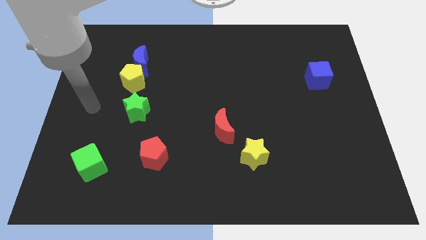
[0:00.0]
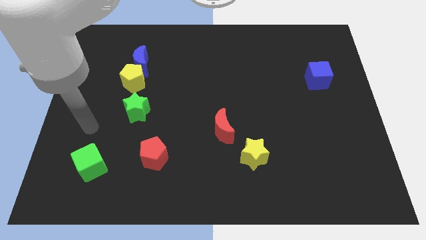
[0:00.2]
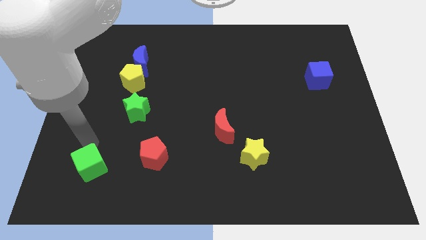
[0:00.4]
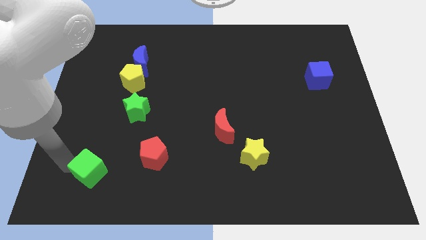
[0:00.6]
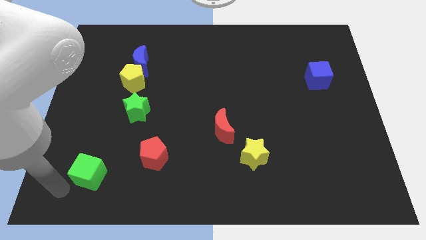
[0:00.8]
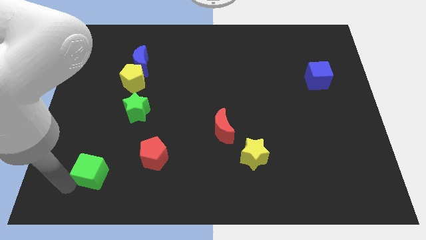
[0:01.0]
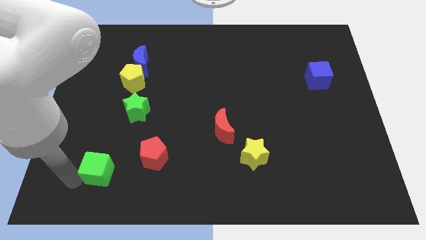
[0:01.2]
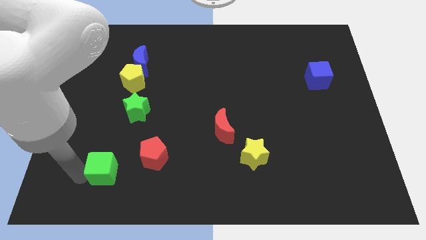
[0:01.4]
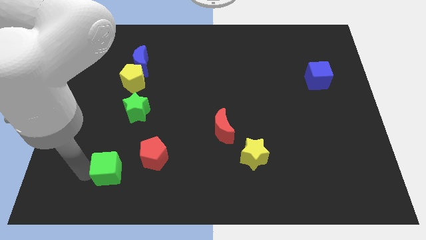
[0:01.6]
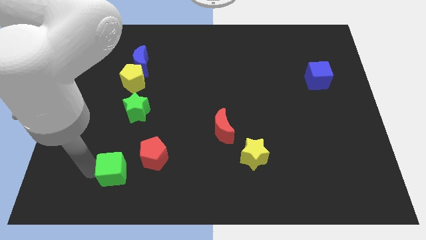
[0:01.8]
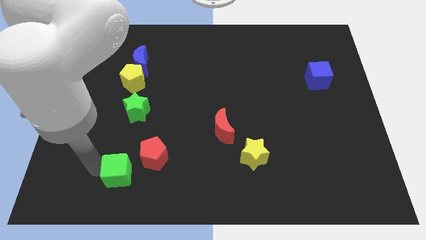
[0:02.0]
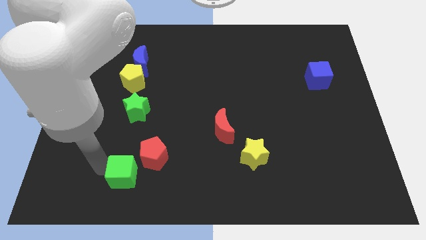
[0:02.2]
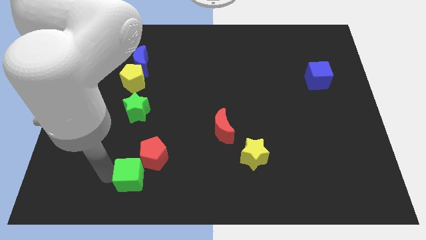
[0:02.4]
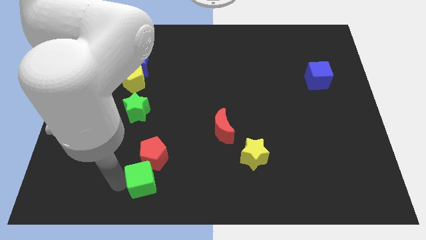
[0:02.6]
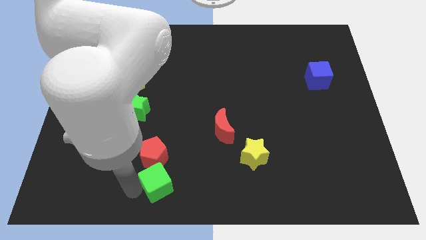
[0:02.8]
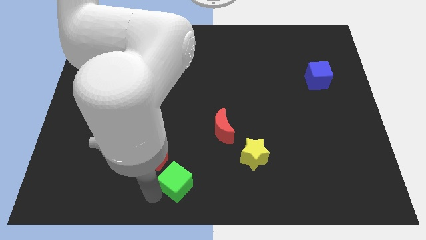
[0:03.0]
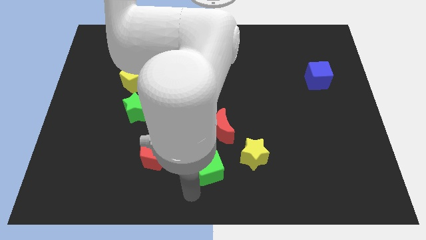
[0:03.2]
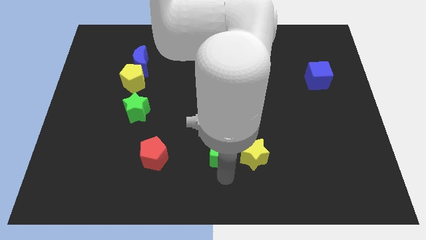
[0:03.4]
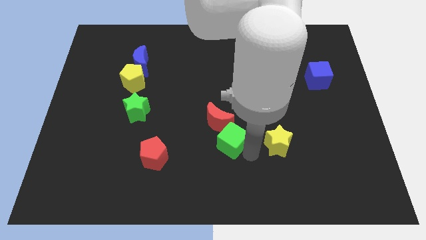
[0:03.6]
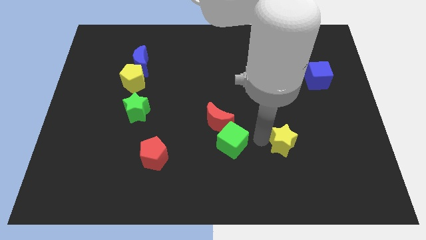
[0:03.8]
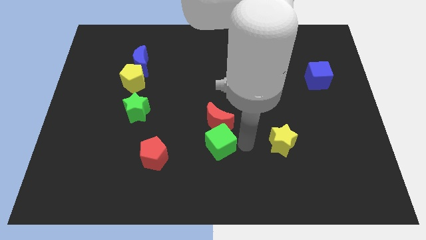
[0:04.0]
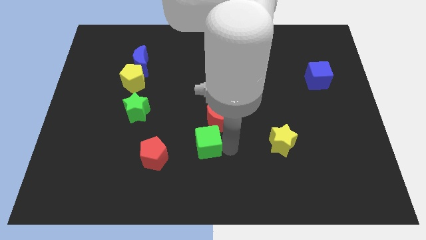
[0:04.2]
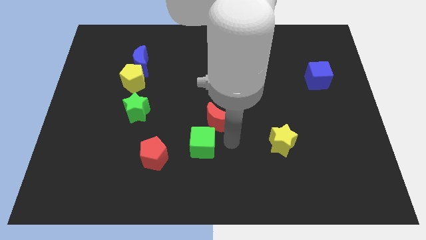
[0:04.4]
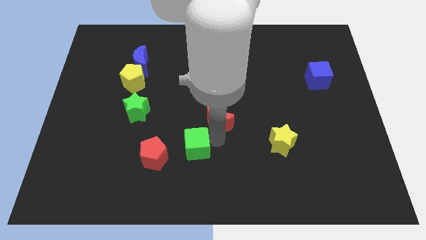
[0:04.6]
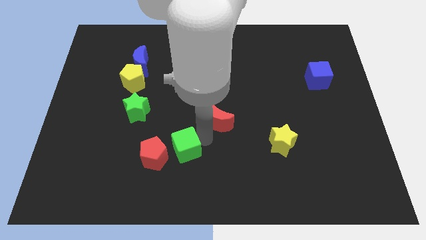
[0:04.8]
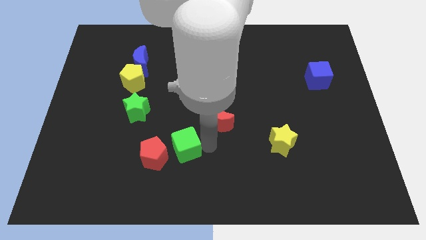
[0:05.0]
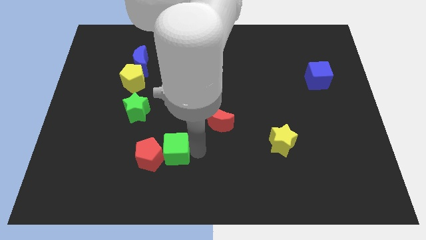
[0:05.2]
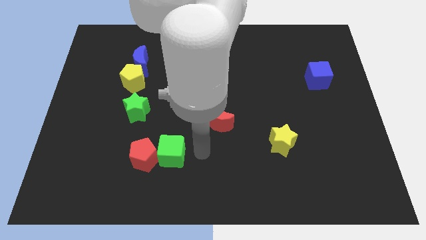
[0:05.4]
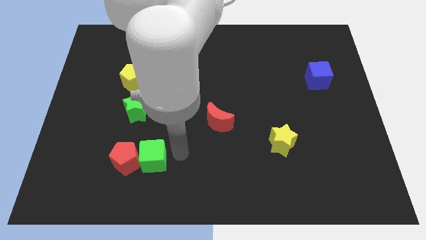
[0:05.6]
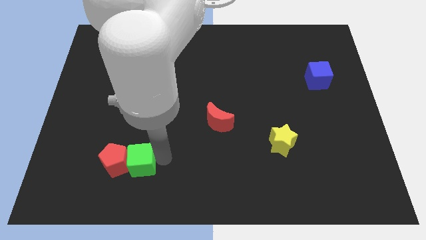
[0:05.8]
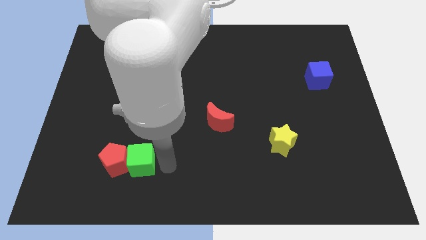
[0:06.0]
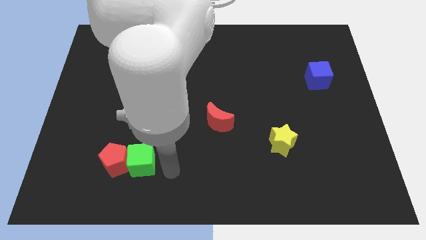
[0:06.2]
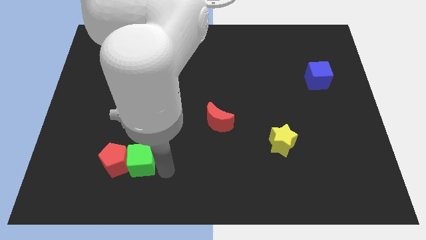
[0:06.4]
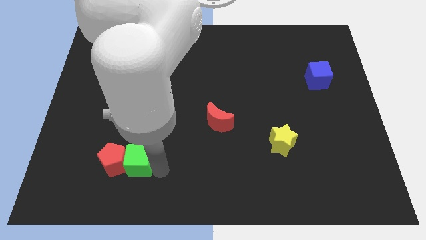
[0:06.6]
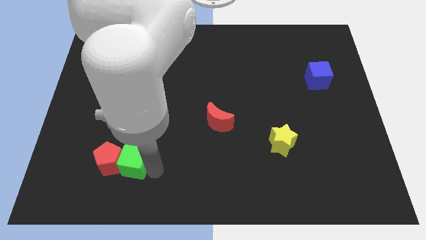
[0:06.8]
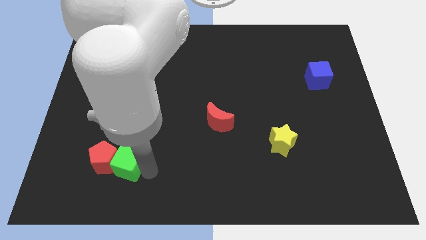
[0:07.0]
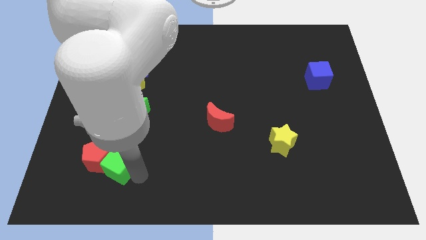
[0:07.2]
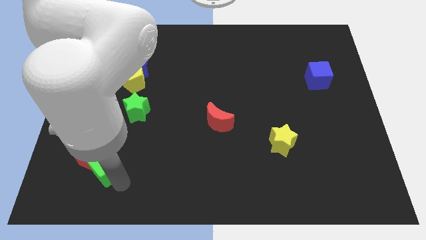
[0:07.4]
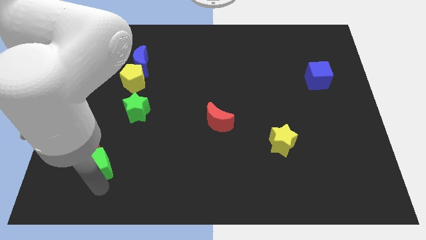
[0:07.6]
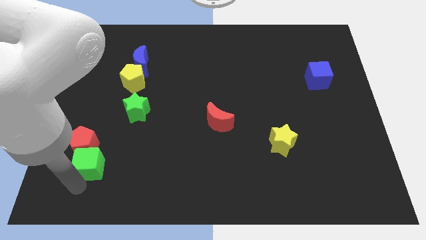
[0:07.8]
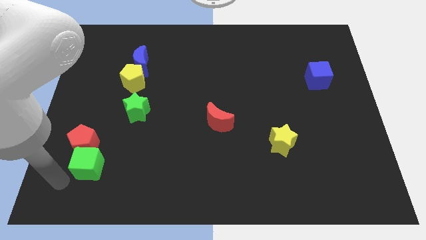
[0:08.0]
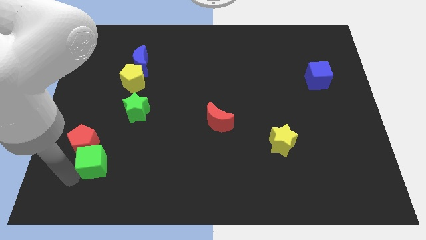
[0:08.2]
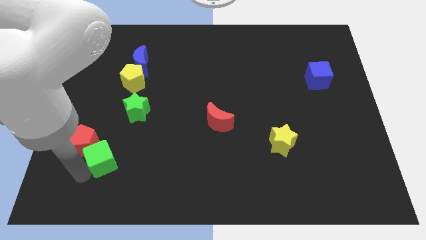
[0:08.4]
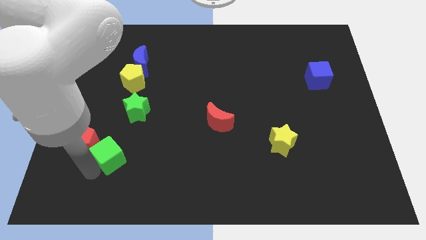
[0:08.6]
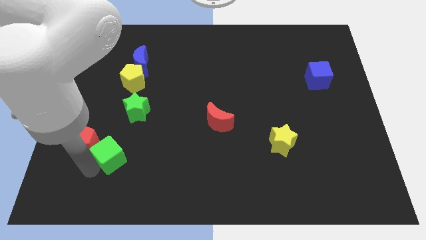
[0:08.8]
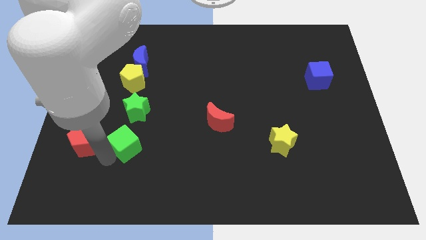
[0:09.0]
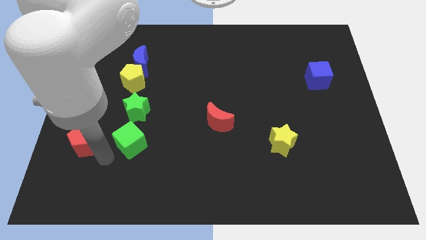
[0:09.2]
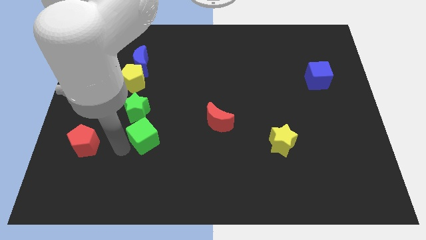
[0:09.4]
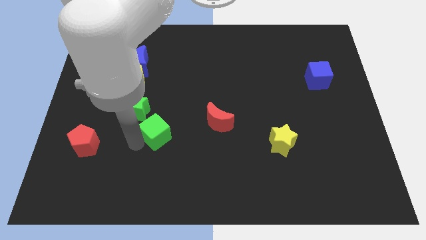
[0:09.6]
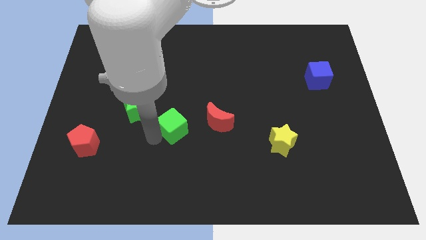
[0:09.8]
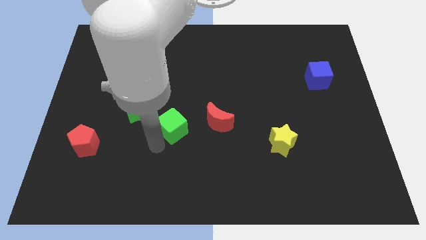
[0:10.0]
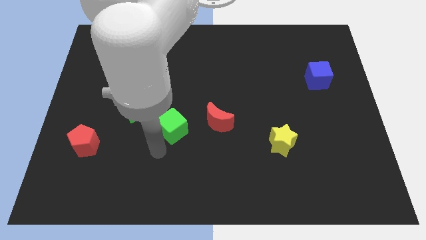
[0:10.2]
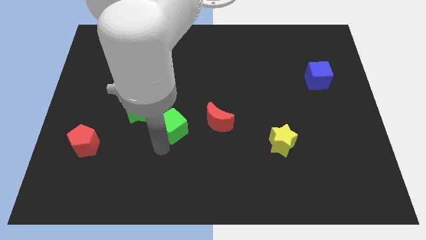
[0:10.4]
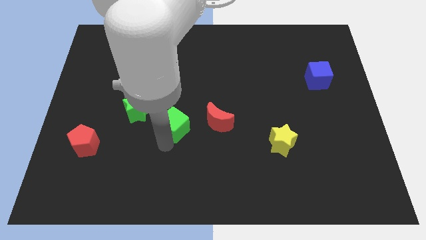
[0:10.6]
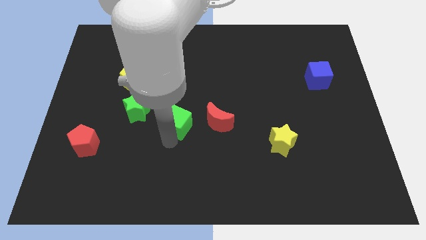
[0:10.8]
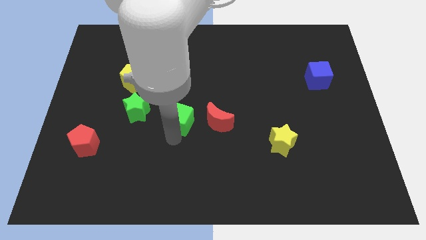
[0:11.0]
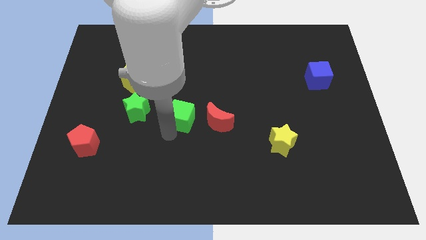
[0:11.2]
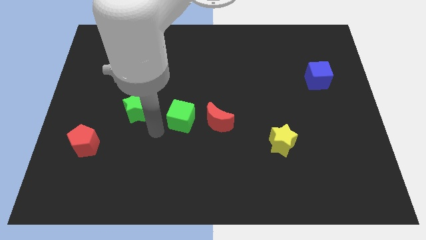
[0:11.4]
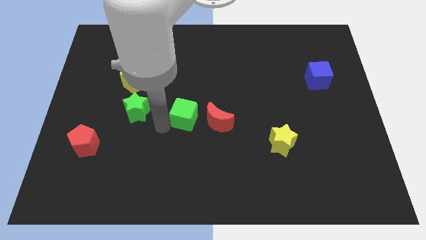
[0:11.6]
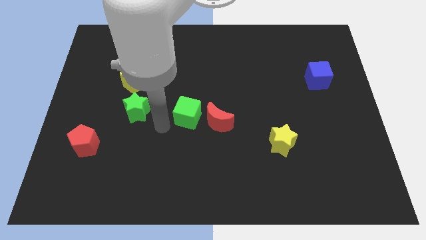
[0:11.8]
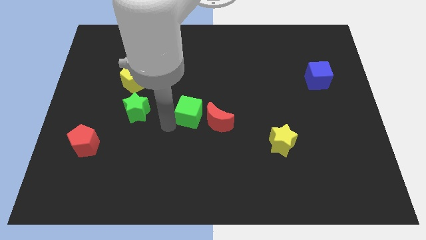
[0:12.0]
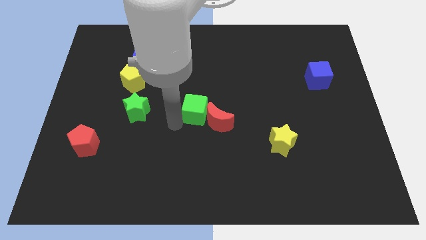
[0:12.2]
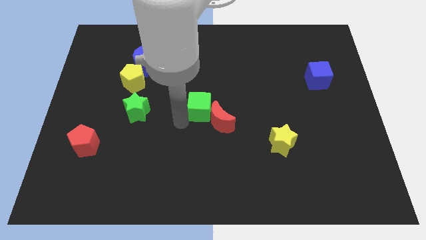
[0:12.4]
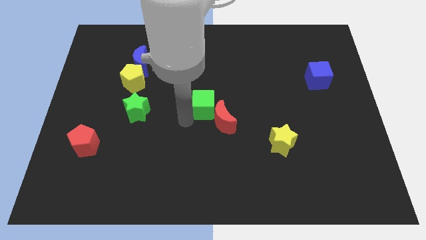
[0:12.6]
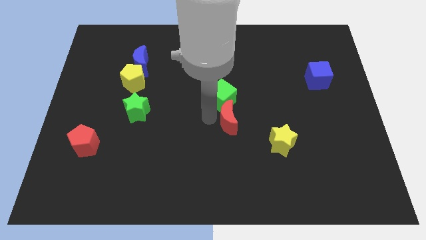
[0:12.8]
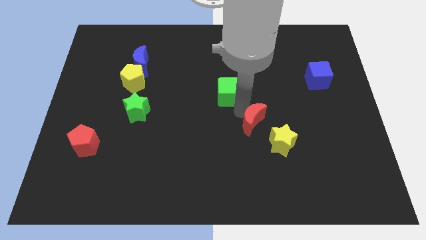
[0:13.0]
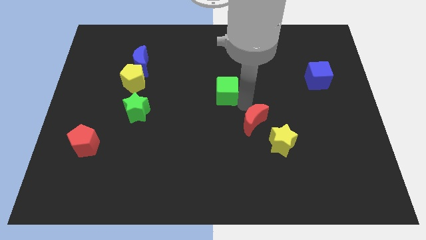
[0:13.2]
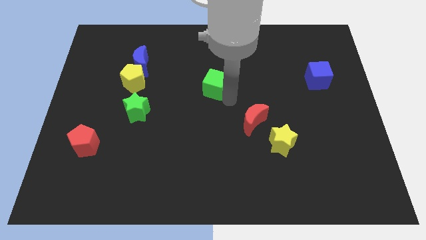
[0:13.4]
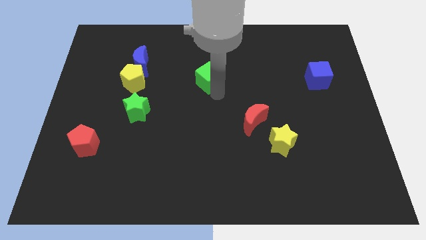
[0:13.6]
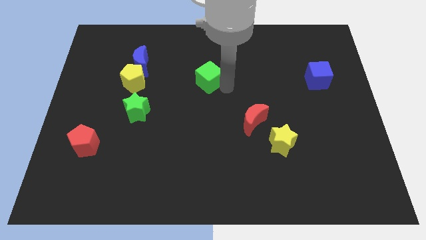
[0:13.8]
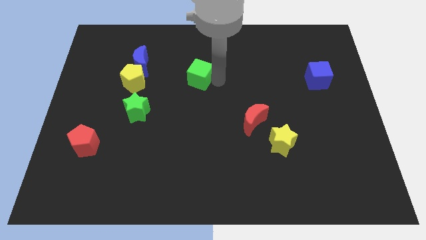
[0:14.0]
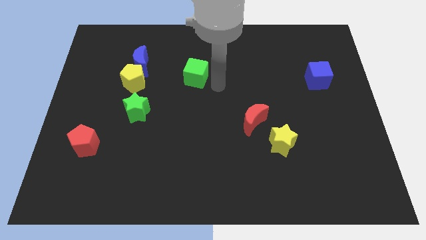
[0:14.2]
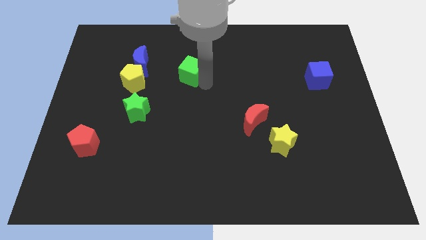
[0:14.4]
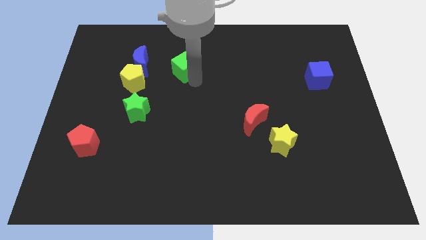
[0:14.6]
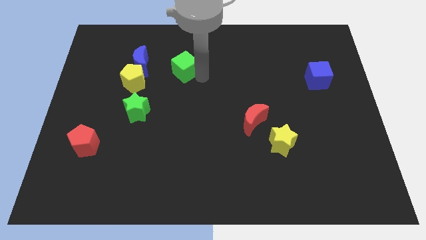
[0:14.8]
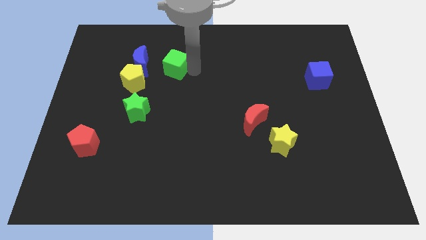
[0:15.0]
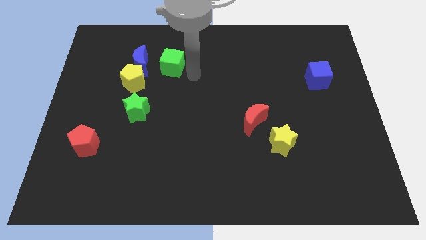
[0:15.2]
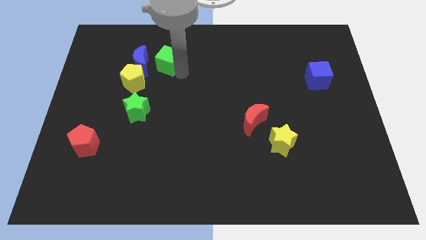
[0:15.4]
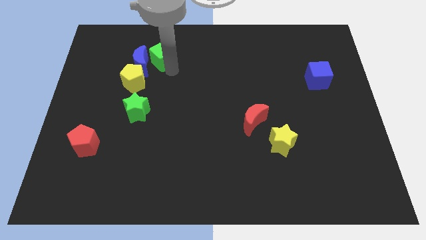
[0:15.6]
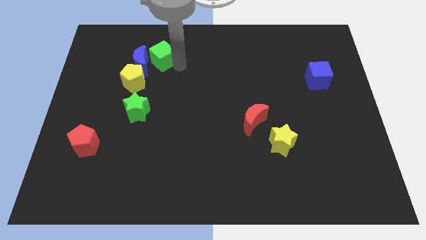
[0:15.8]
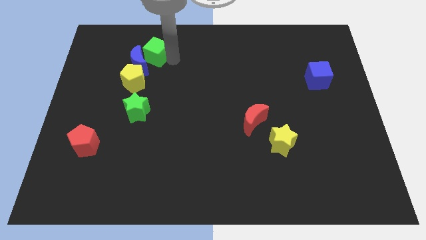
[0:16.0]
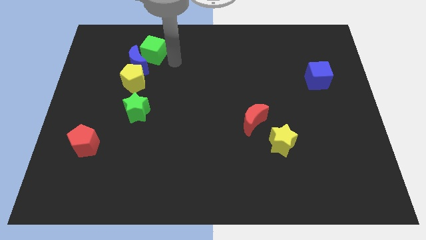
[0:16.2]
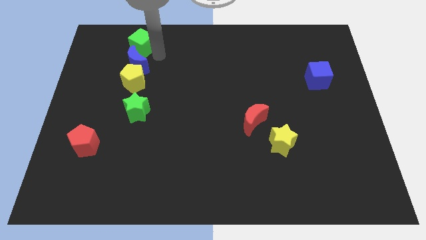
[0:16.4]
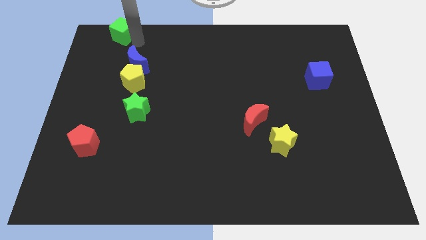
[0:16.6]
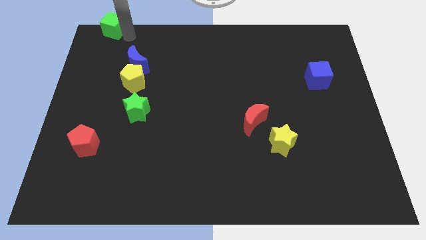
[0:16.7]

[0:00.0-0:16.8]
put the green cube to the top left
